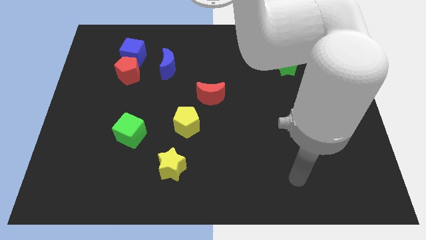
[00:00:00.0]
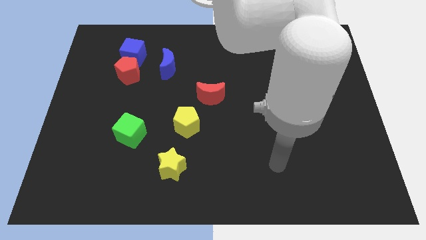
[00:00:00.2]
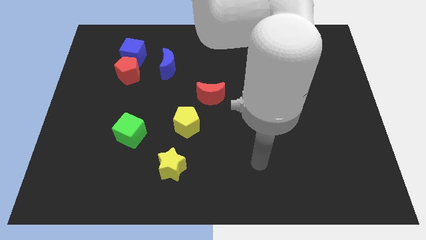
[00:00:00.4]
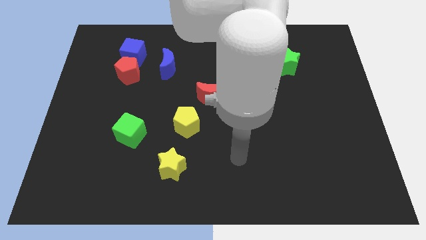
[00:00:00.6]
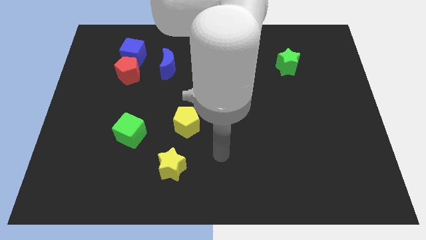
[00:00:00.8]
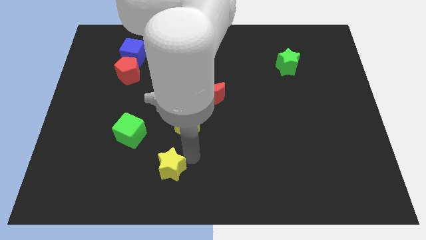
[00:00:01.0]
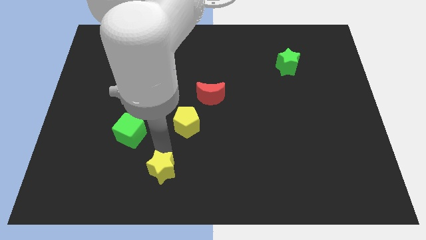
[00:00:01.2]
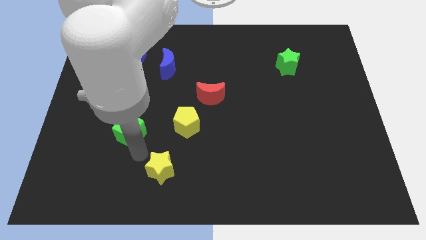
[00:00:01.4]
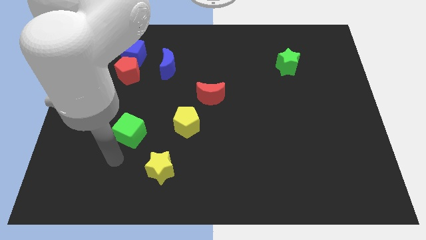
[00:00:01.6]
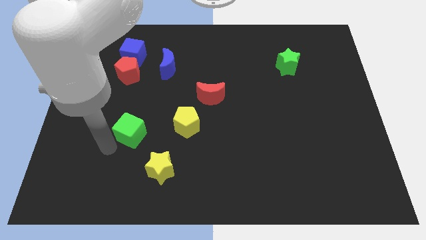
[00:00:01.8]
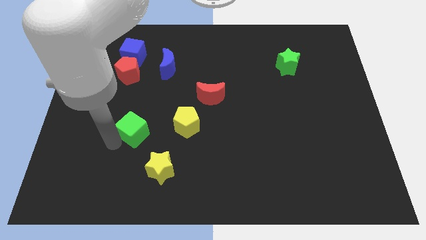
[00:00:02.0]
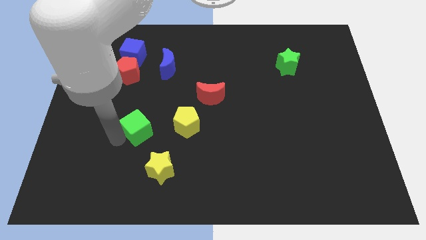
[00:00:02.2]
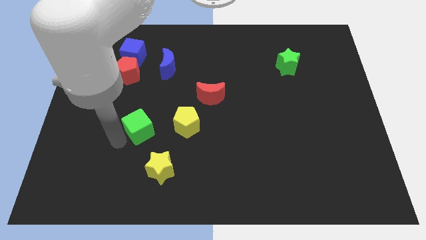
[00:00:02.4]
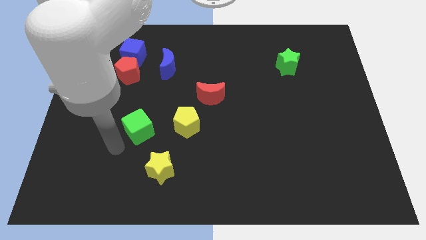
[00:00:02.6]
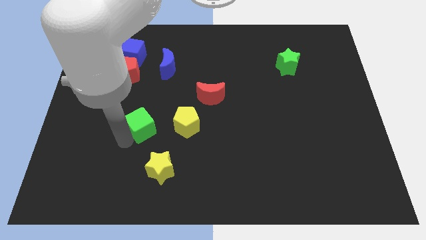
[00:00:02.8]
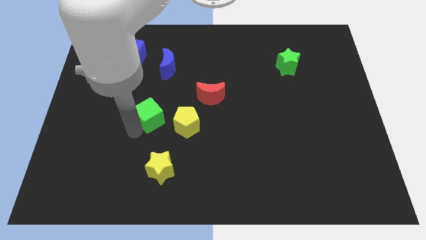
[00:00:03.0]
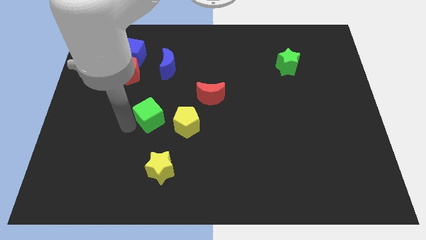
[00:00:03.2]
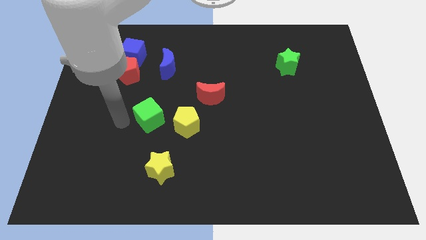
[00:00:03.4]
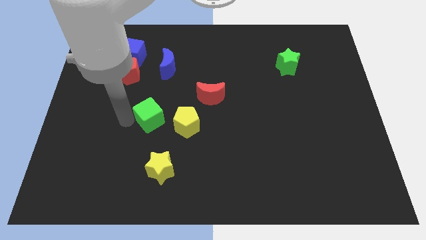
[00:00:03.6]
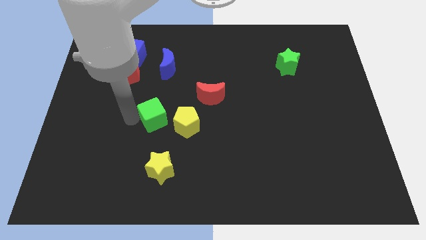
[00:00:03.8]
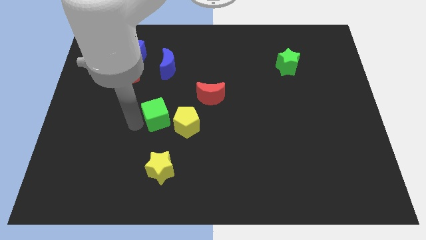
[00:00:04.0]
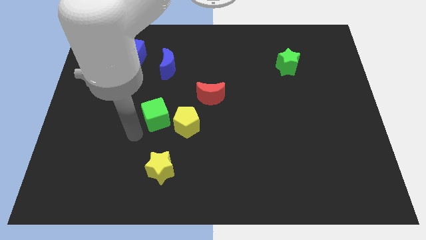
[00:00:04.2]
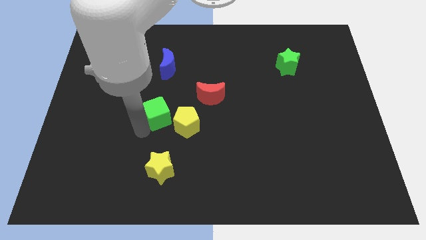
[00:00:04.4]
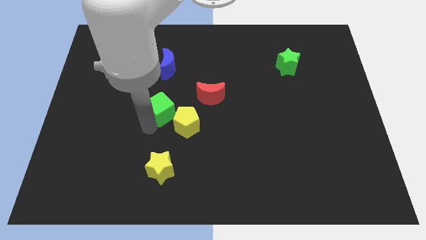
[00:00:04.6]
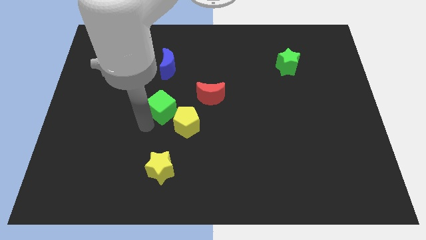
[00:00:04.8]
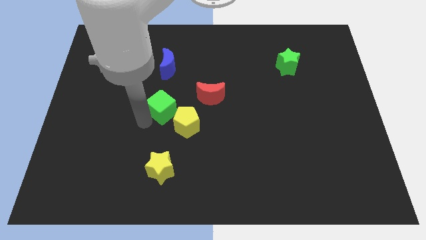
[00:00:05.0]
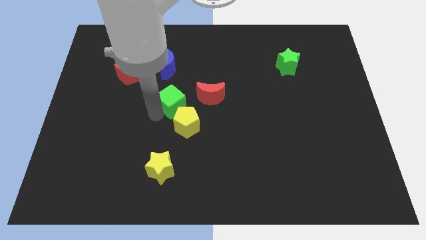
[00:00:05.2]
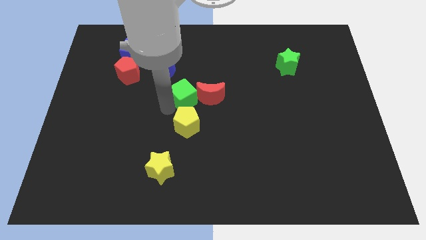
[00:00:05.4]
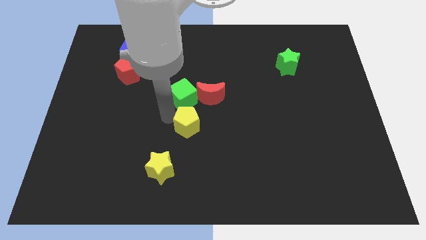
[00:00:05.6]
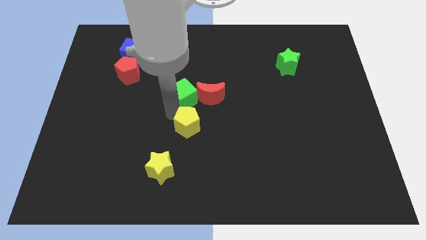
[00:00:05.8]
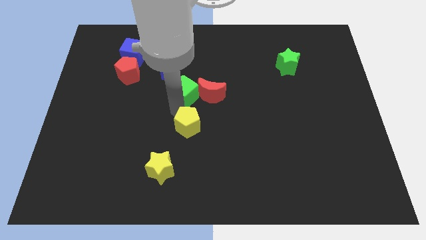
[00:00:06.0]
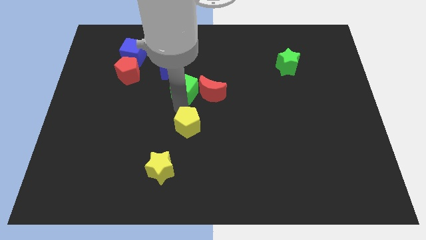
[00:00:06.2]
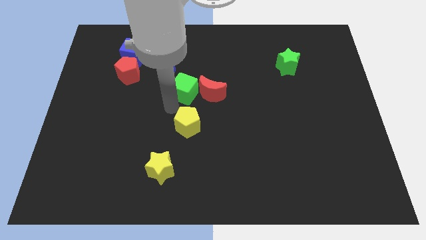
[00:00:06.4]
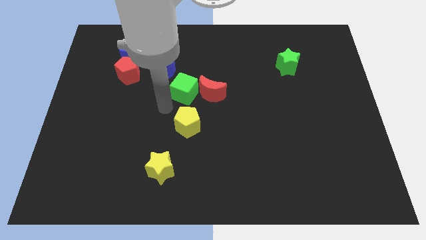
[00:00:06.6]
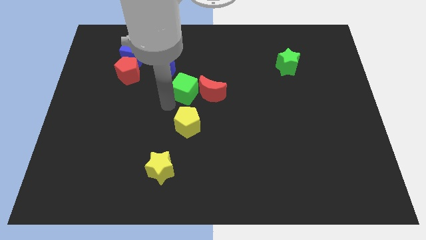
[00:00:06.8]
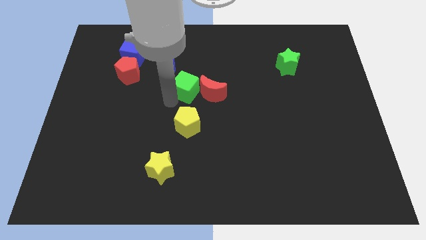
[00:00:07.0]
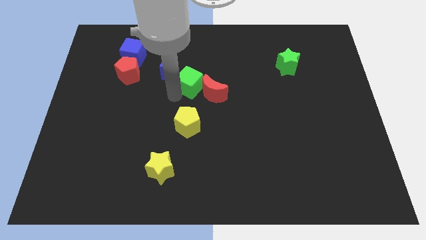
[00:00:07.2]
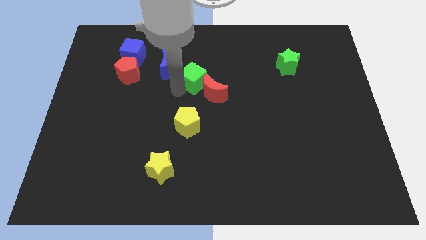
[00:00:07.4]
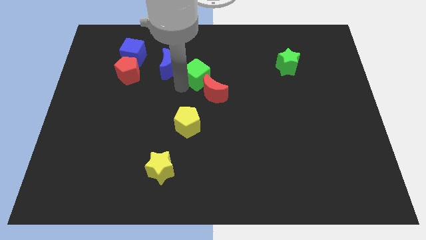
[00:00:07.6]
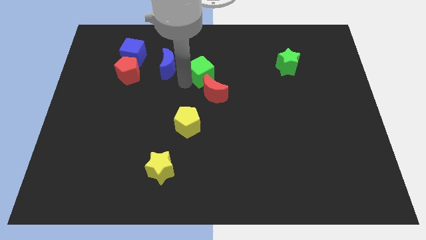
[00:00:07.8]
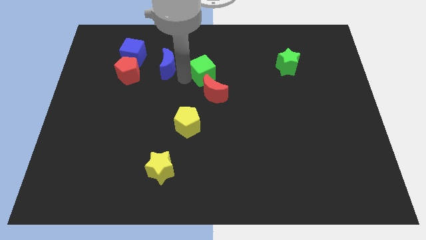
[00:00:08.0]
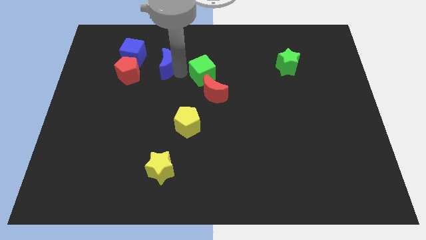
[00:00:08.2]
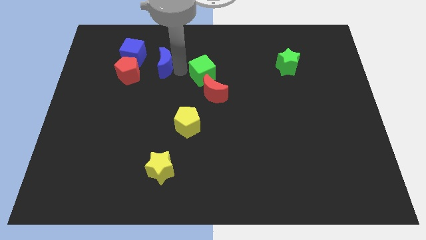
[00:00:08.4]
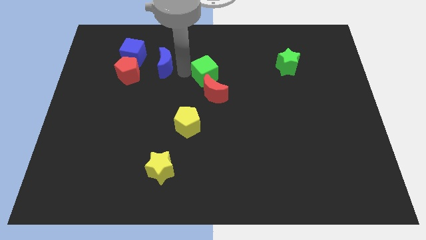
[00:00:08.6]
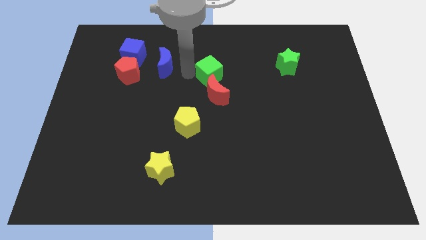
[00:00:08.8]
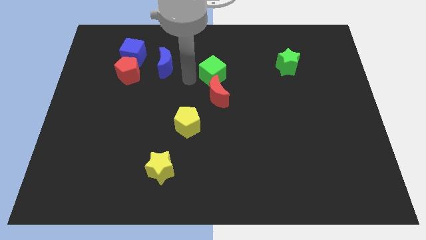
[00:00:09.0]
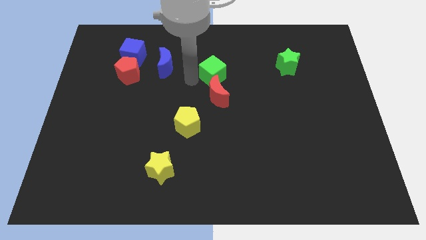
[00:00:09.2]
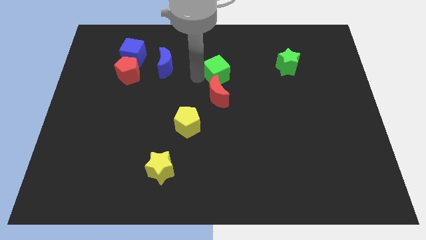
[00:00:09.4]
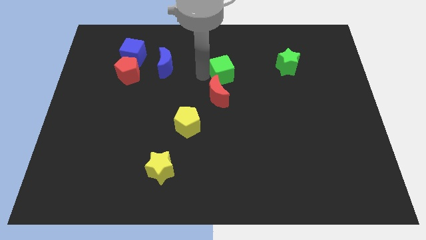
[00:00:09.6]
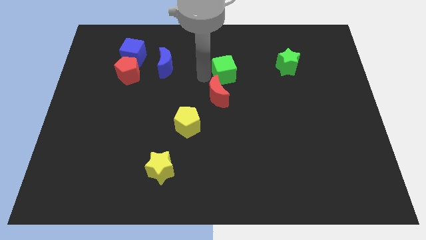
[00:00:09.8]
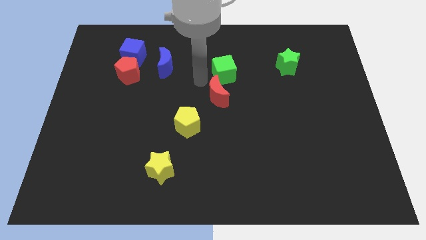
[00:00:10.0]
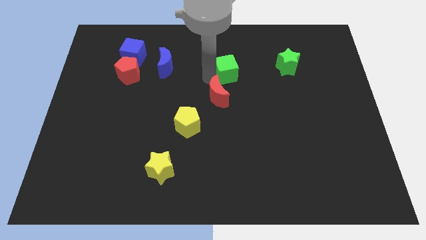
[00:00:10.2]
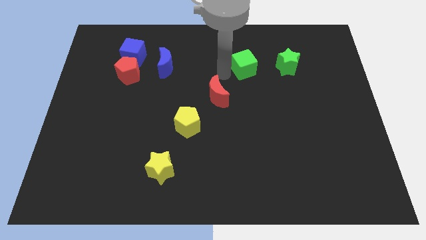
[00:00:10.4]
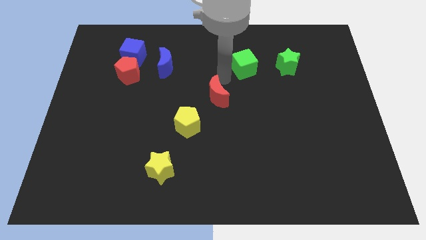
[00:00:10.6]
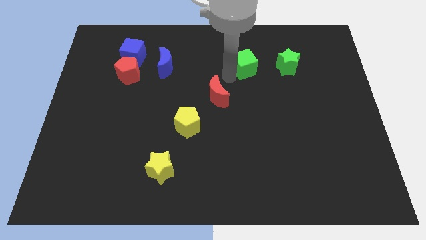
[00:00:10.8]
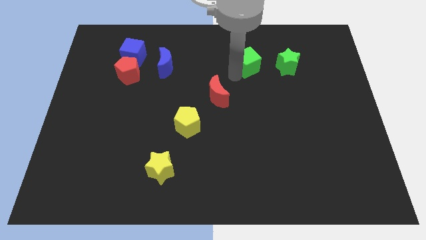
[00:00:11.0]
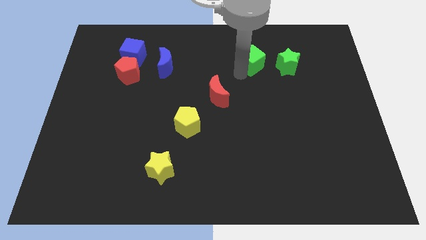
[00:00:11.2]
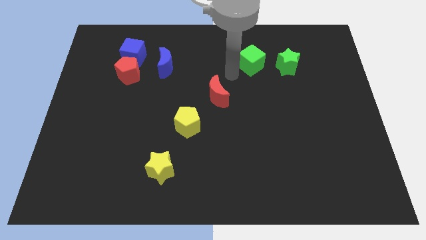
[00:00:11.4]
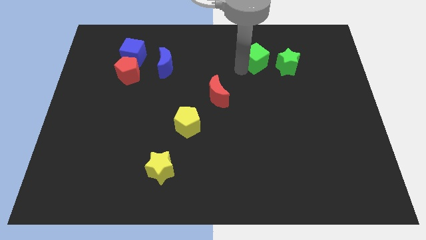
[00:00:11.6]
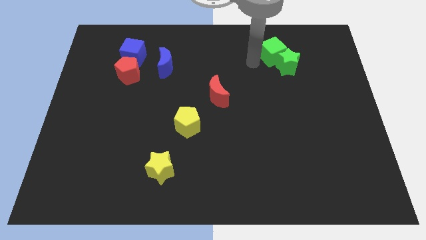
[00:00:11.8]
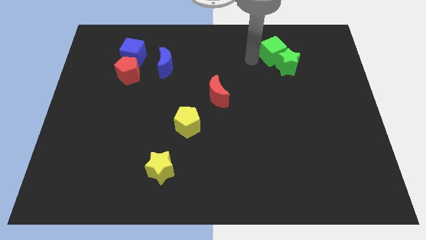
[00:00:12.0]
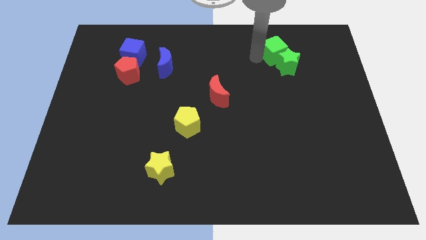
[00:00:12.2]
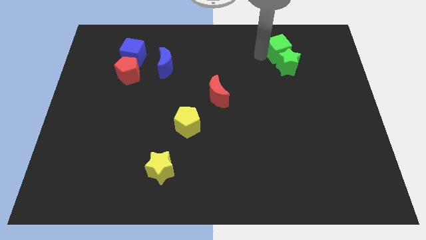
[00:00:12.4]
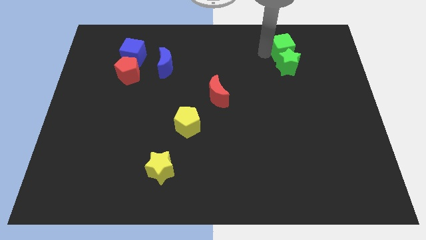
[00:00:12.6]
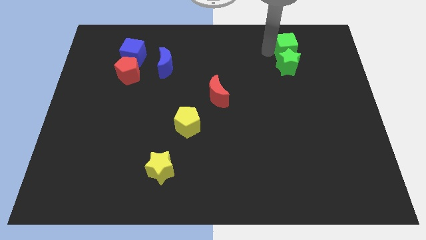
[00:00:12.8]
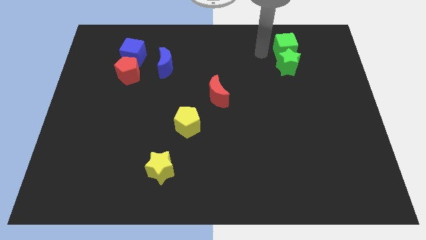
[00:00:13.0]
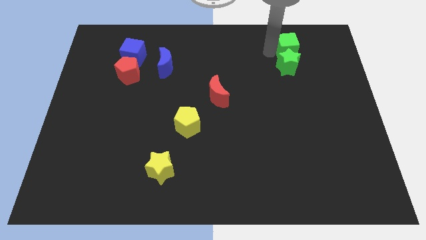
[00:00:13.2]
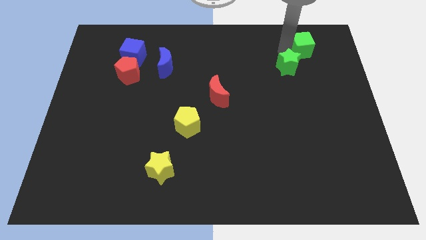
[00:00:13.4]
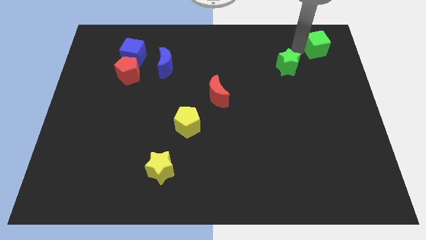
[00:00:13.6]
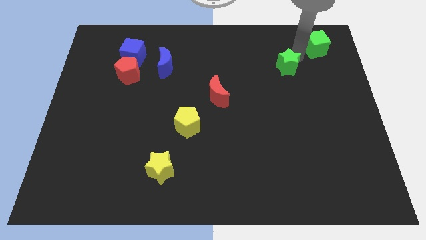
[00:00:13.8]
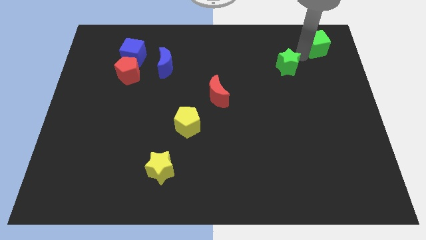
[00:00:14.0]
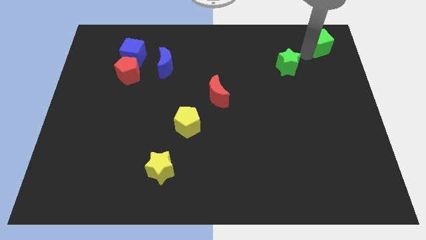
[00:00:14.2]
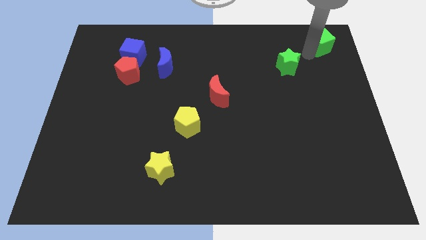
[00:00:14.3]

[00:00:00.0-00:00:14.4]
slide the green cube to the top right corner
